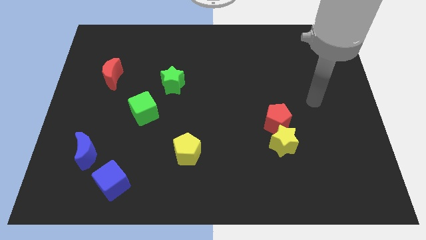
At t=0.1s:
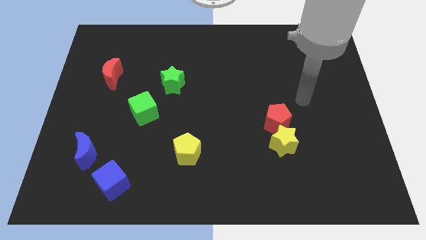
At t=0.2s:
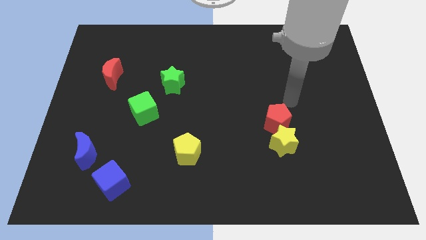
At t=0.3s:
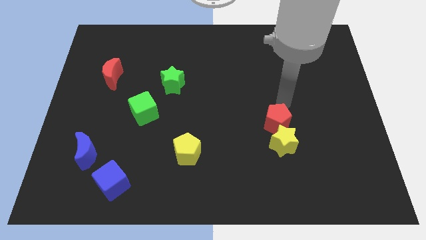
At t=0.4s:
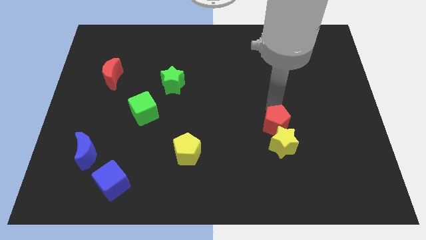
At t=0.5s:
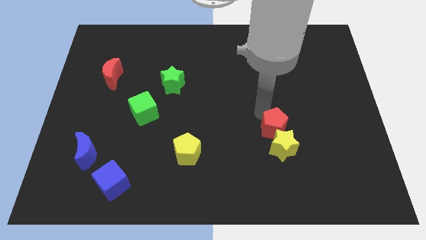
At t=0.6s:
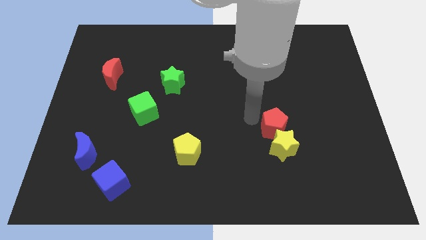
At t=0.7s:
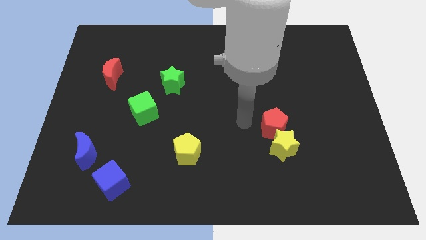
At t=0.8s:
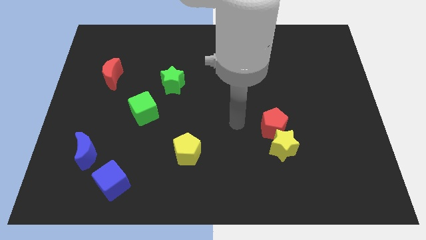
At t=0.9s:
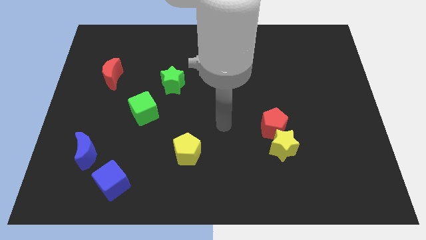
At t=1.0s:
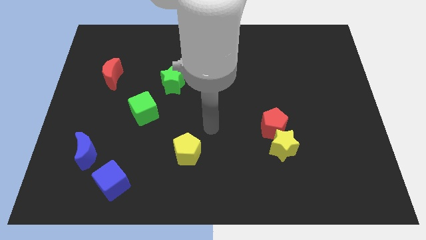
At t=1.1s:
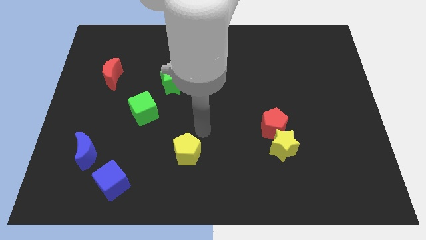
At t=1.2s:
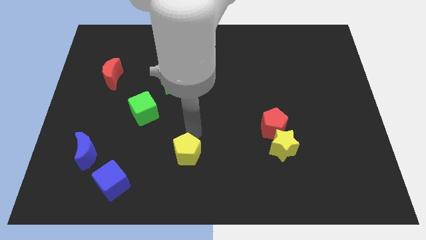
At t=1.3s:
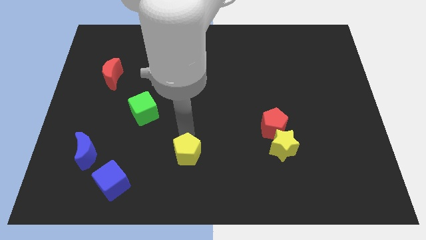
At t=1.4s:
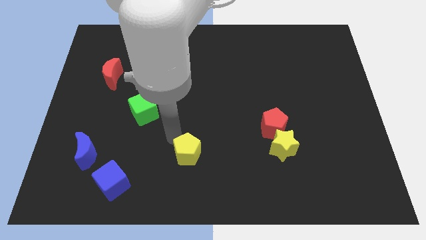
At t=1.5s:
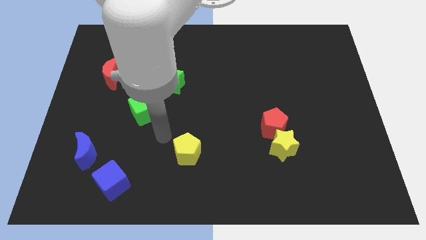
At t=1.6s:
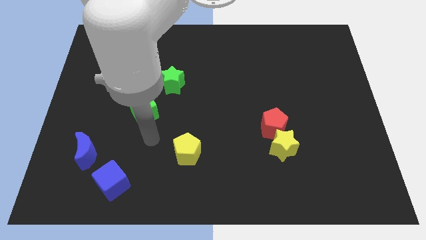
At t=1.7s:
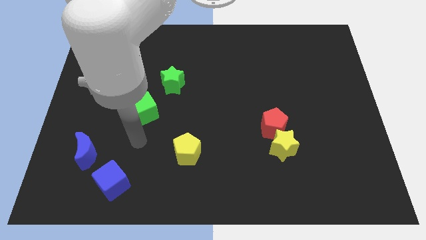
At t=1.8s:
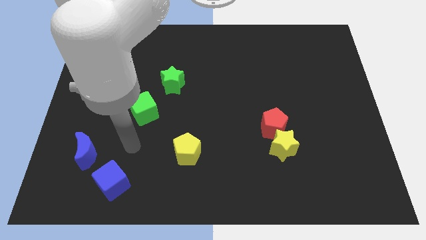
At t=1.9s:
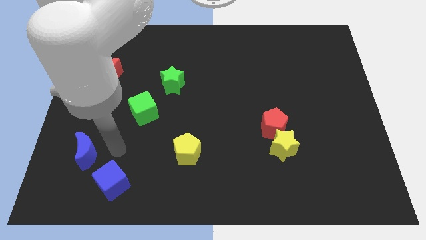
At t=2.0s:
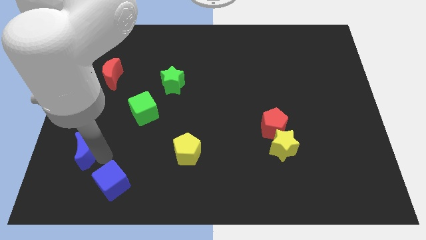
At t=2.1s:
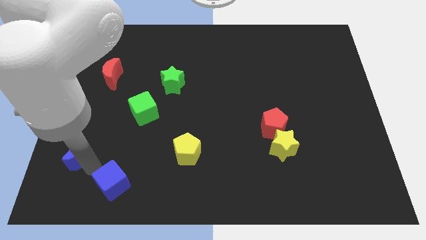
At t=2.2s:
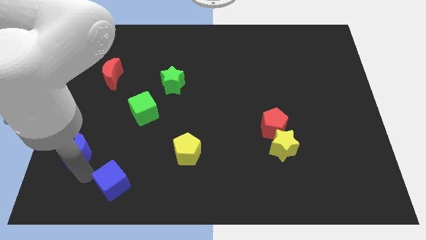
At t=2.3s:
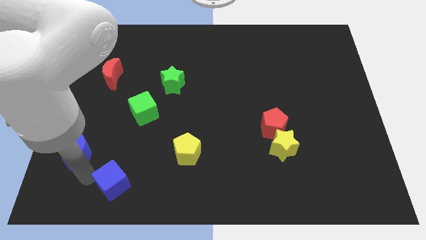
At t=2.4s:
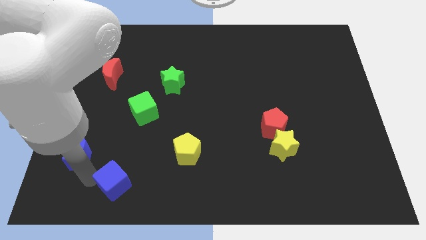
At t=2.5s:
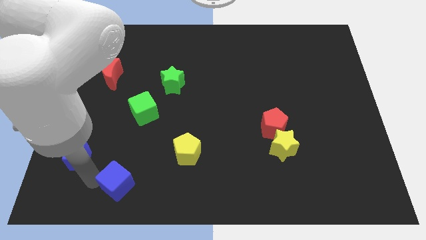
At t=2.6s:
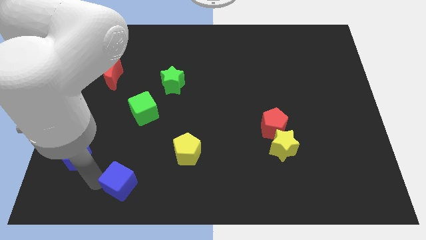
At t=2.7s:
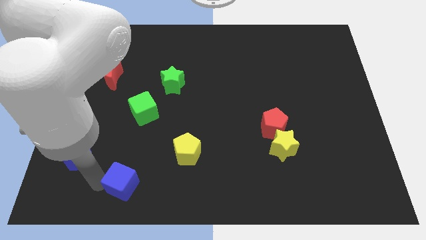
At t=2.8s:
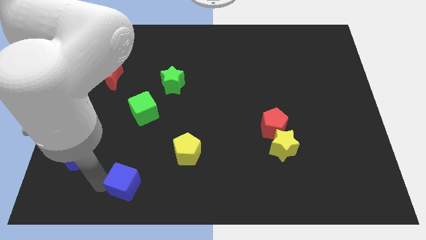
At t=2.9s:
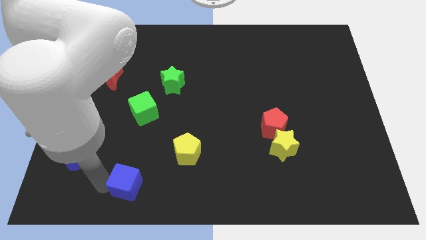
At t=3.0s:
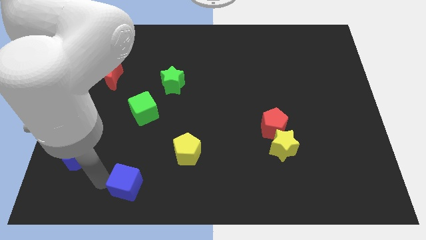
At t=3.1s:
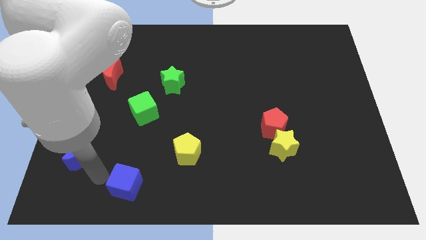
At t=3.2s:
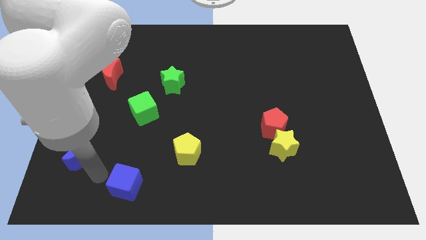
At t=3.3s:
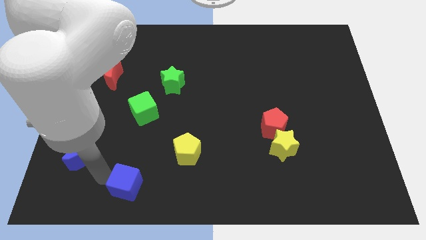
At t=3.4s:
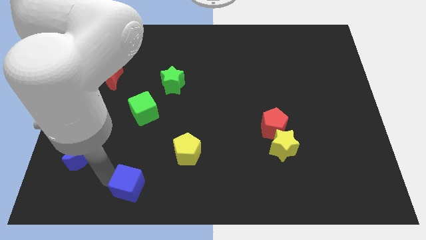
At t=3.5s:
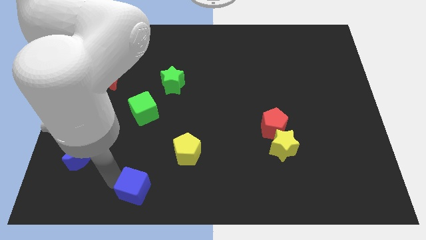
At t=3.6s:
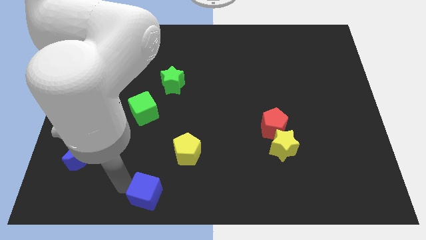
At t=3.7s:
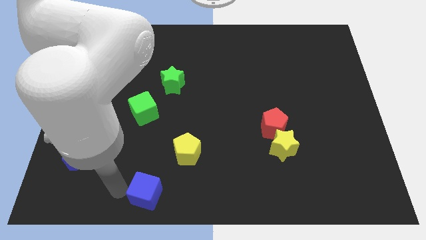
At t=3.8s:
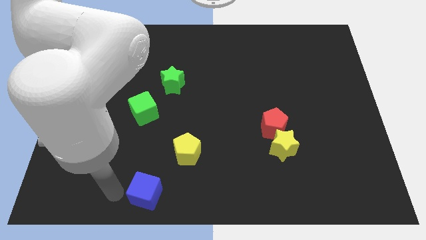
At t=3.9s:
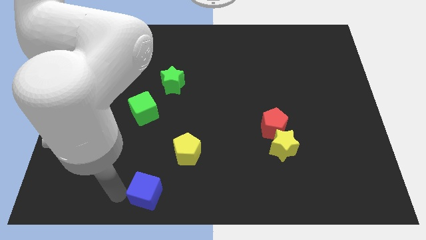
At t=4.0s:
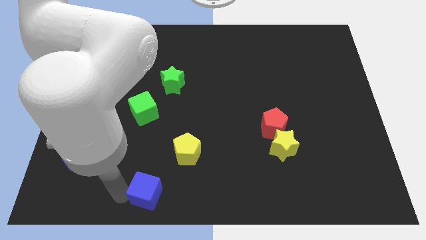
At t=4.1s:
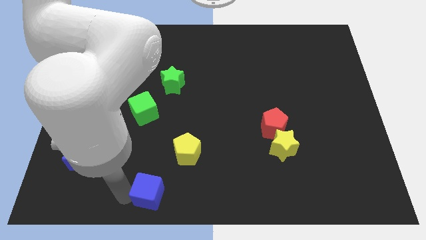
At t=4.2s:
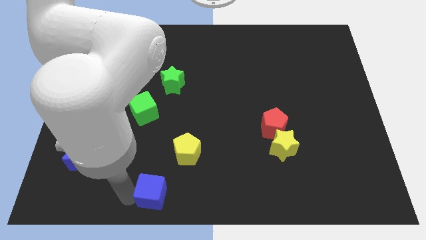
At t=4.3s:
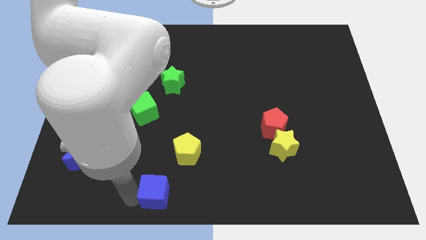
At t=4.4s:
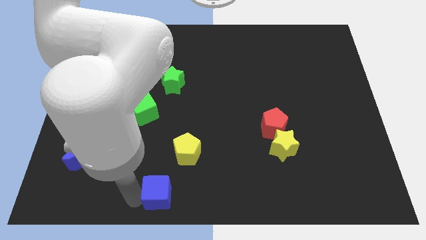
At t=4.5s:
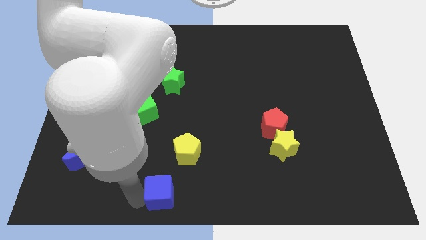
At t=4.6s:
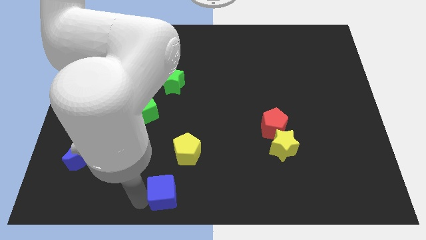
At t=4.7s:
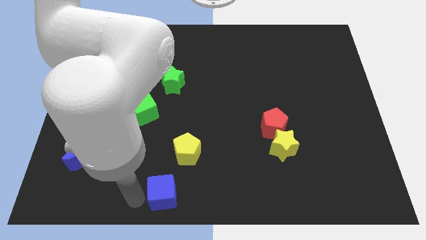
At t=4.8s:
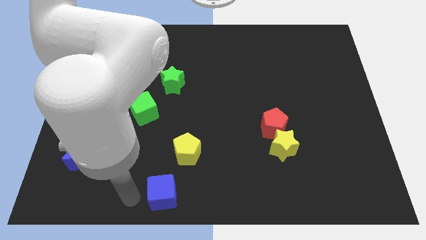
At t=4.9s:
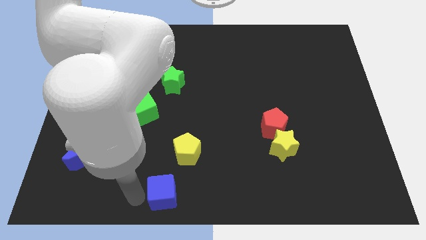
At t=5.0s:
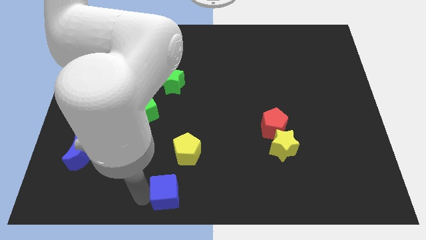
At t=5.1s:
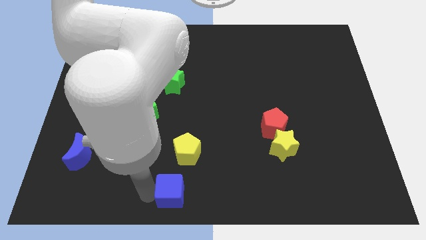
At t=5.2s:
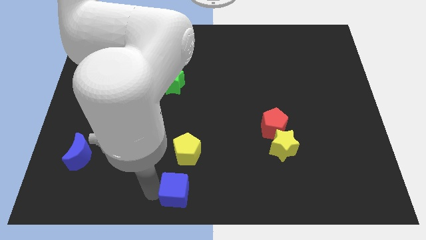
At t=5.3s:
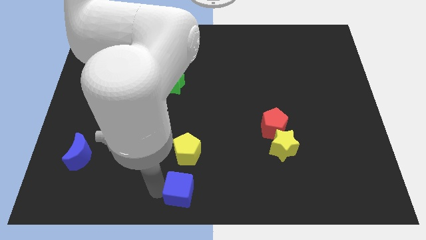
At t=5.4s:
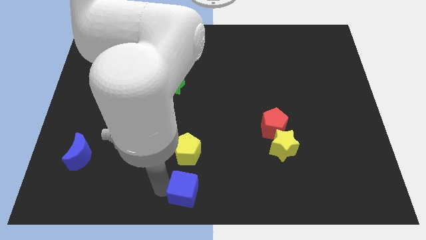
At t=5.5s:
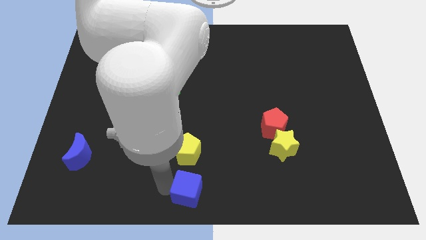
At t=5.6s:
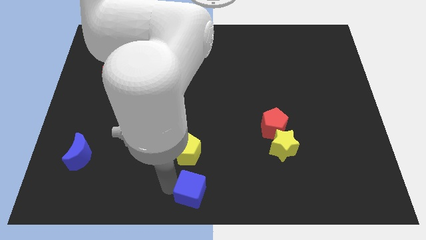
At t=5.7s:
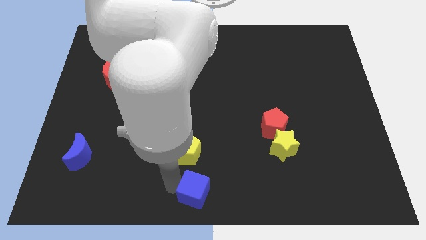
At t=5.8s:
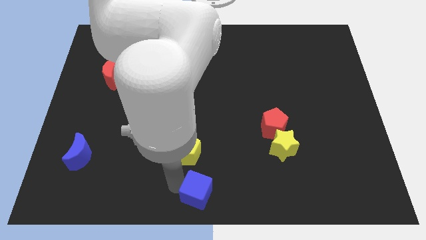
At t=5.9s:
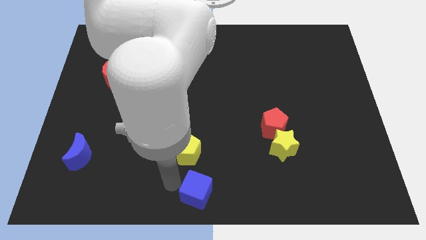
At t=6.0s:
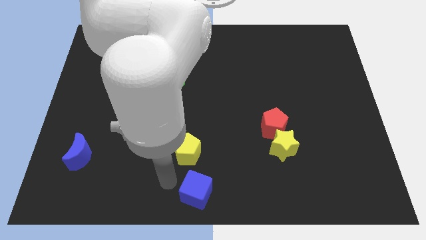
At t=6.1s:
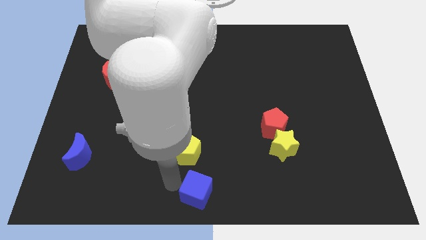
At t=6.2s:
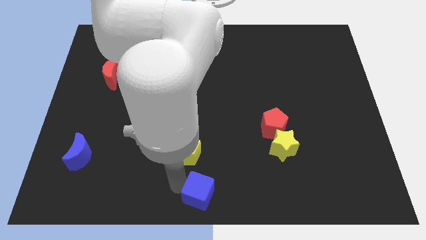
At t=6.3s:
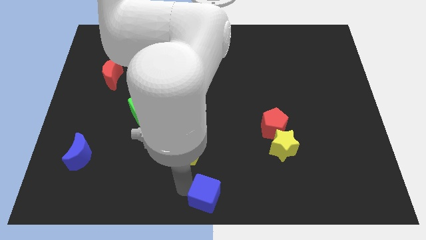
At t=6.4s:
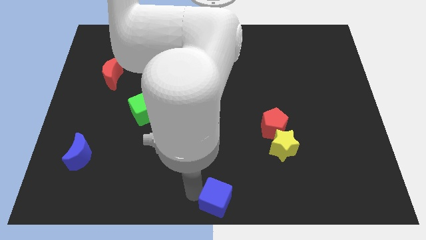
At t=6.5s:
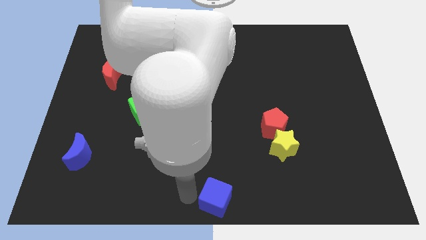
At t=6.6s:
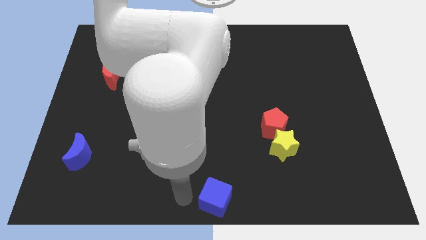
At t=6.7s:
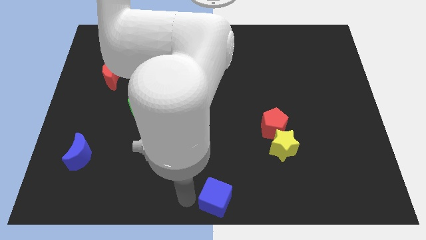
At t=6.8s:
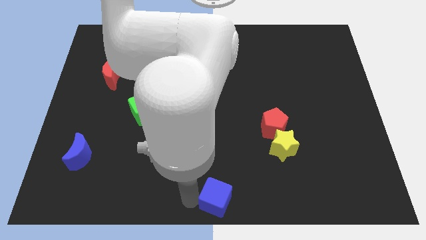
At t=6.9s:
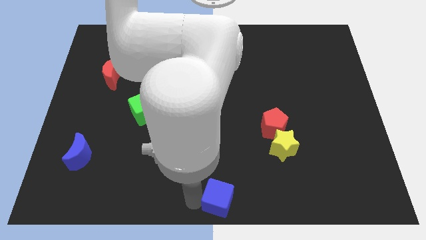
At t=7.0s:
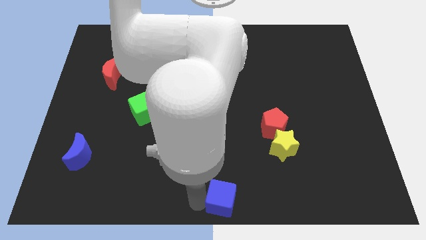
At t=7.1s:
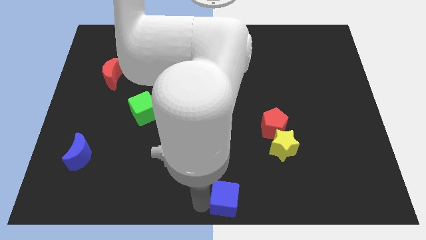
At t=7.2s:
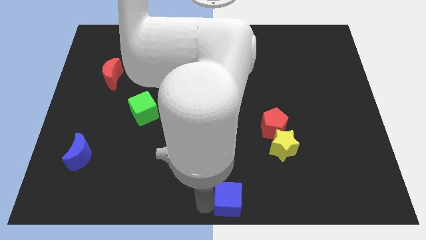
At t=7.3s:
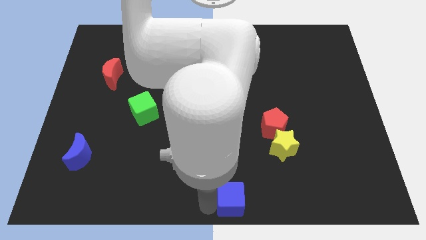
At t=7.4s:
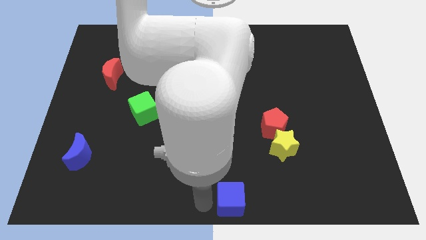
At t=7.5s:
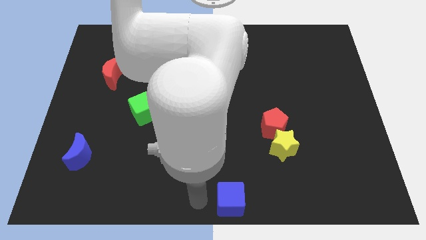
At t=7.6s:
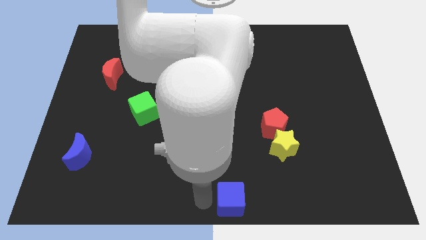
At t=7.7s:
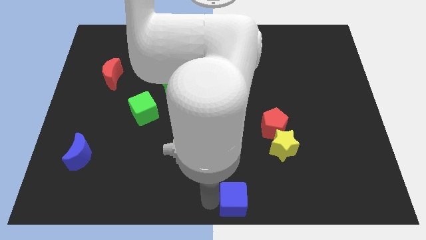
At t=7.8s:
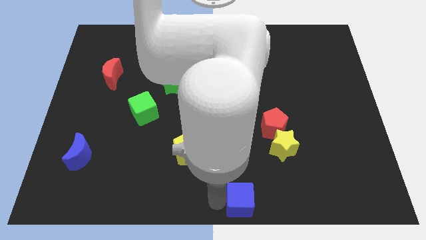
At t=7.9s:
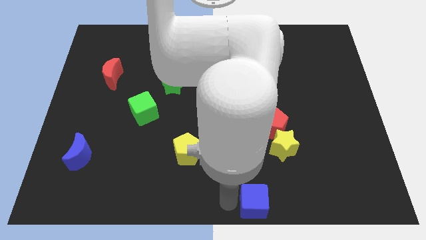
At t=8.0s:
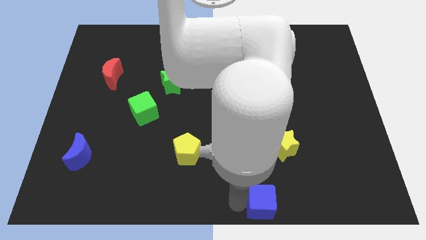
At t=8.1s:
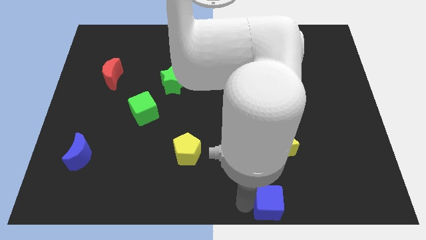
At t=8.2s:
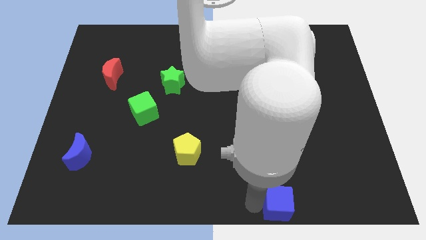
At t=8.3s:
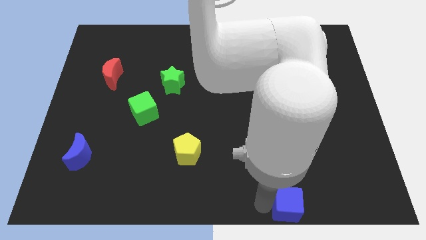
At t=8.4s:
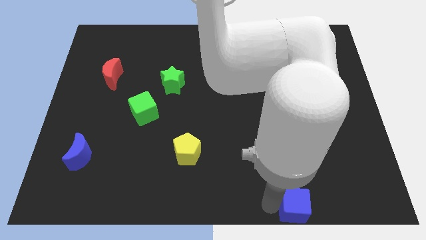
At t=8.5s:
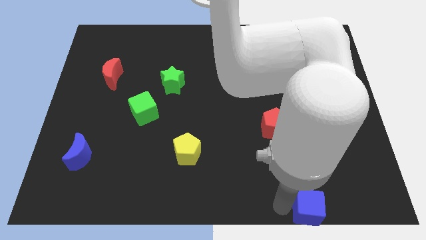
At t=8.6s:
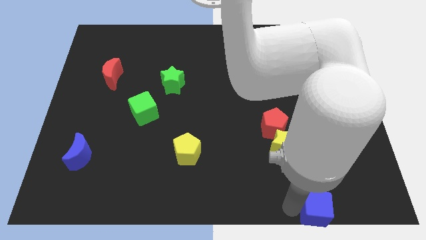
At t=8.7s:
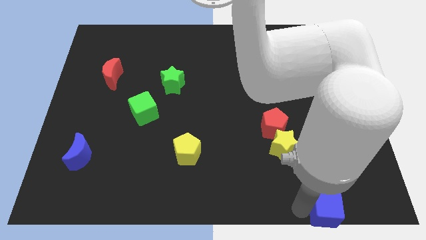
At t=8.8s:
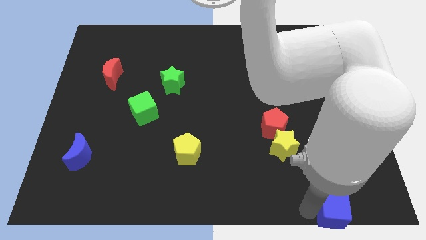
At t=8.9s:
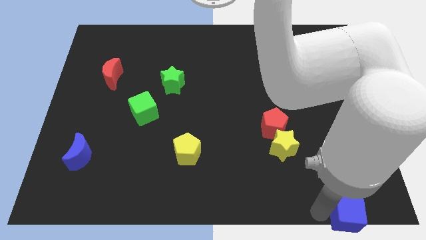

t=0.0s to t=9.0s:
move the blue cube to the bottom right corner
